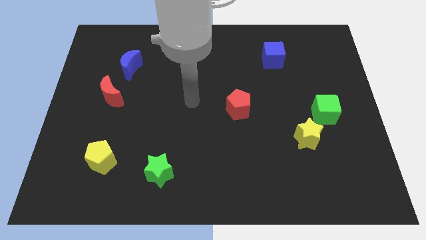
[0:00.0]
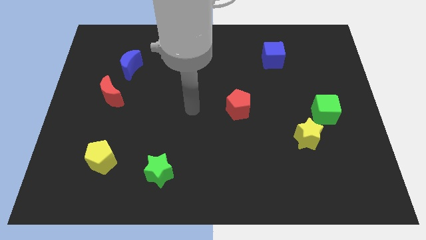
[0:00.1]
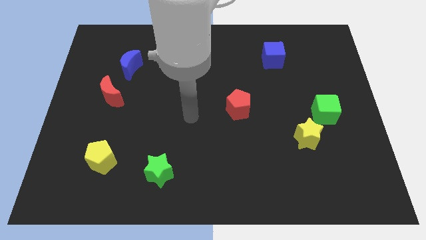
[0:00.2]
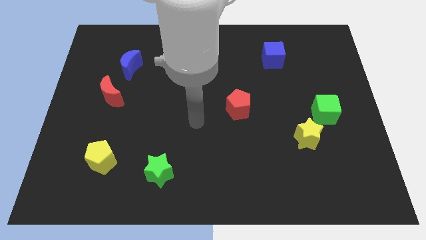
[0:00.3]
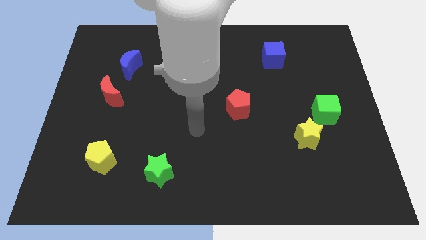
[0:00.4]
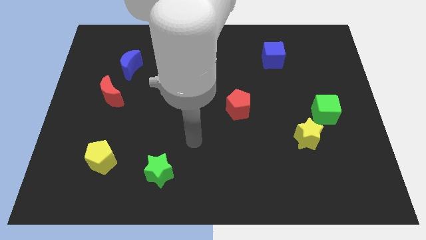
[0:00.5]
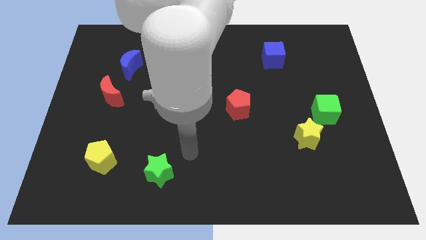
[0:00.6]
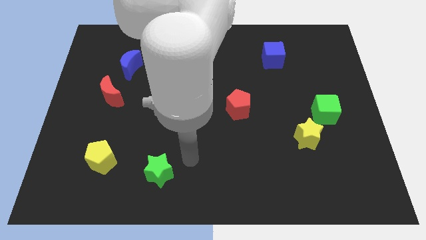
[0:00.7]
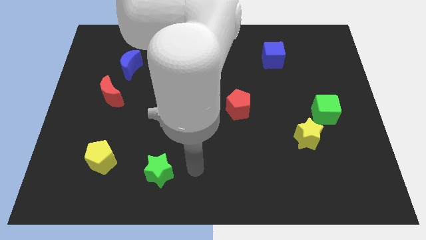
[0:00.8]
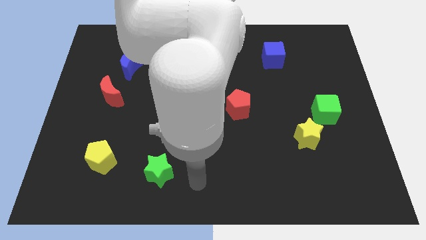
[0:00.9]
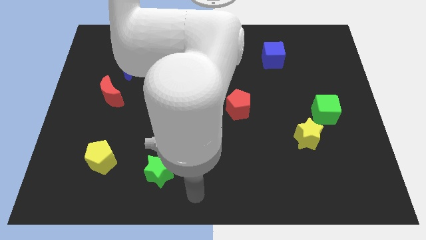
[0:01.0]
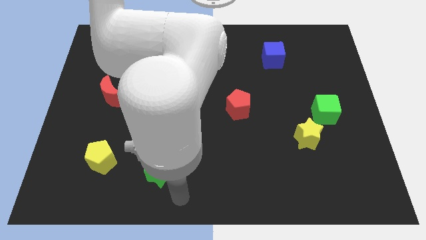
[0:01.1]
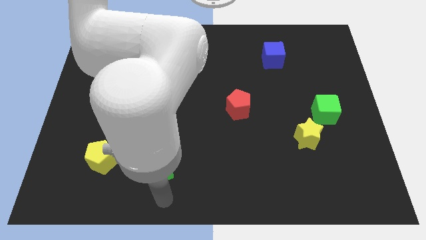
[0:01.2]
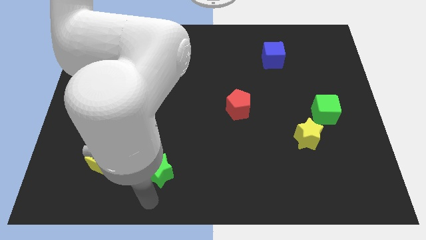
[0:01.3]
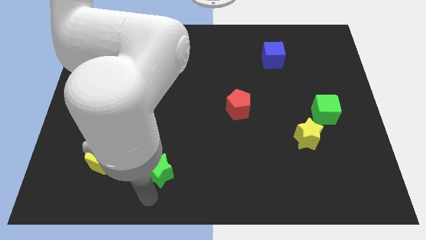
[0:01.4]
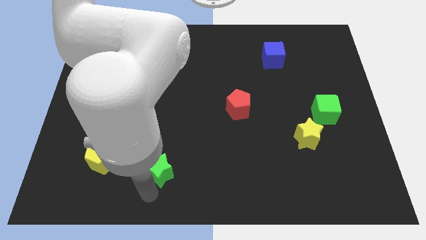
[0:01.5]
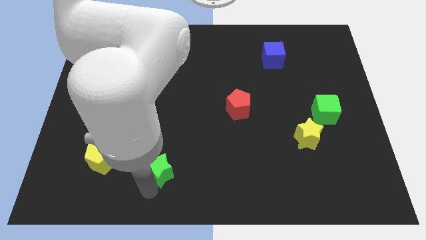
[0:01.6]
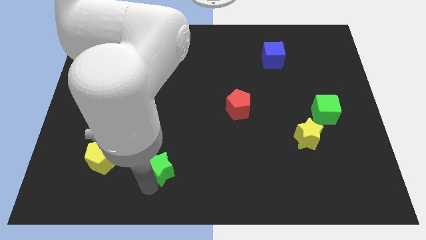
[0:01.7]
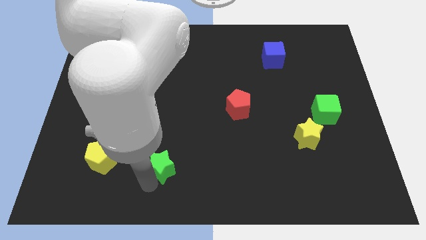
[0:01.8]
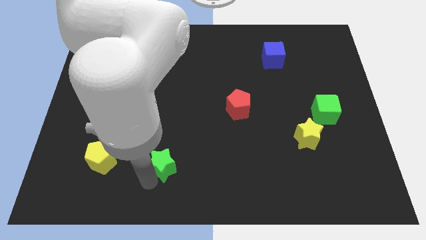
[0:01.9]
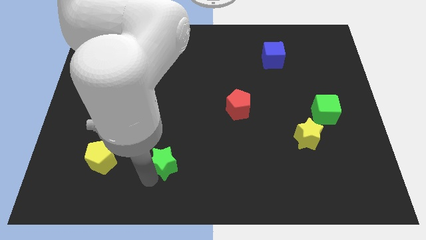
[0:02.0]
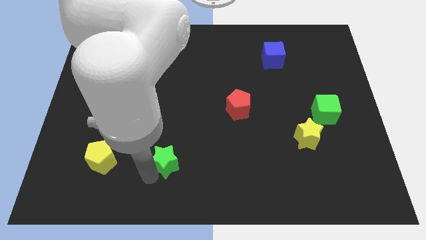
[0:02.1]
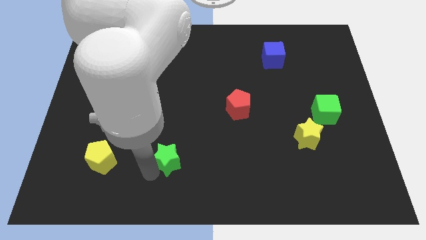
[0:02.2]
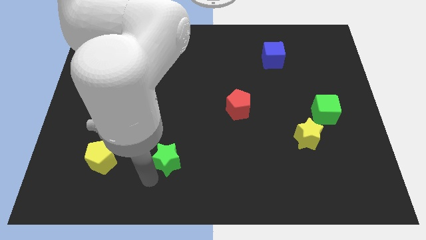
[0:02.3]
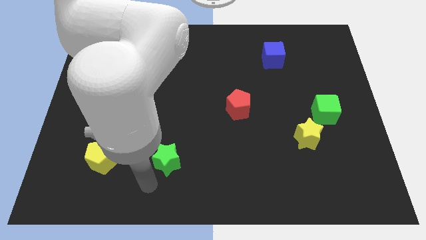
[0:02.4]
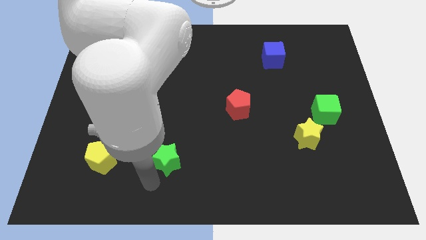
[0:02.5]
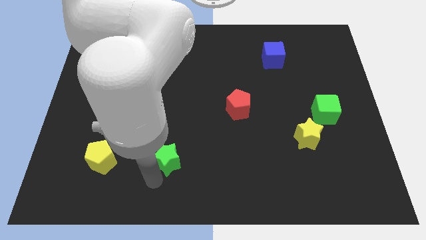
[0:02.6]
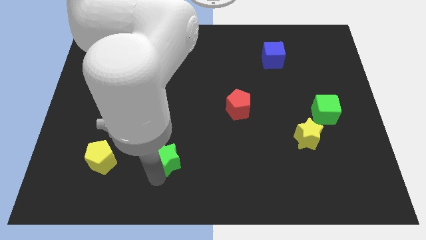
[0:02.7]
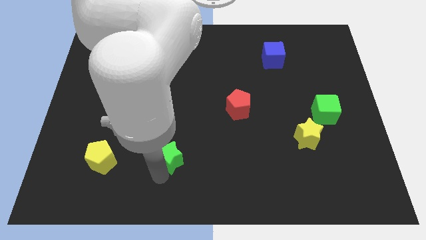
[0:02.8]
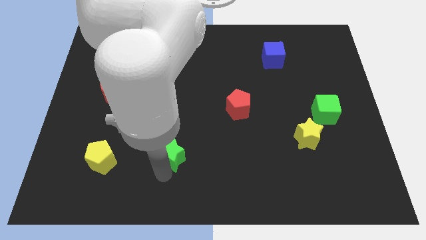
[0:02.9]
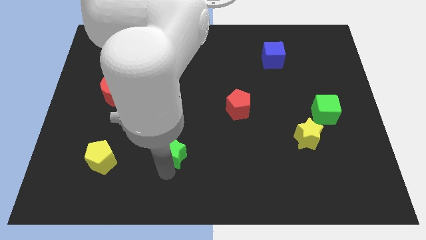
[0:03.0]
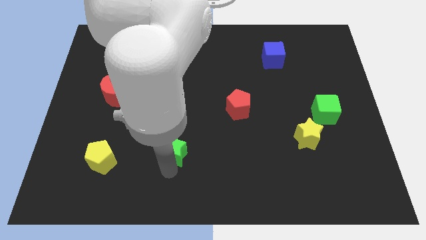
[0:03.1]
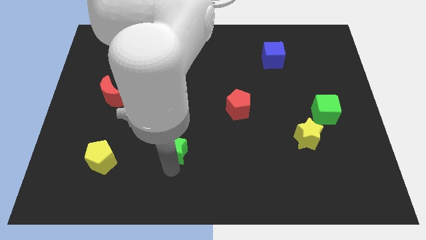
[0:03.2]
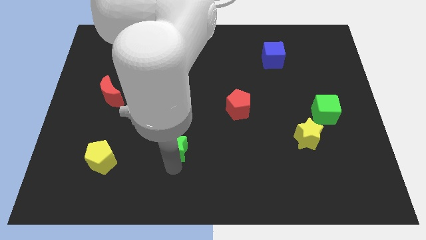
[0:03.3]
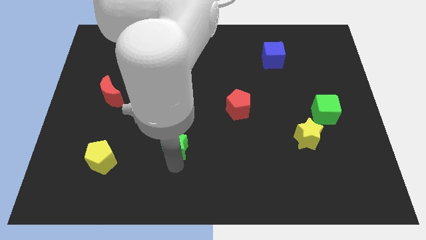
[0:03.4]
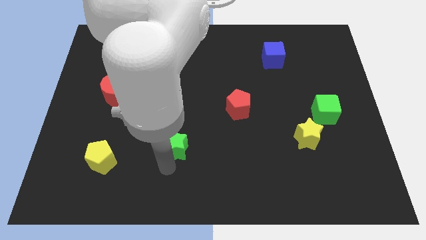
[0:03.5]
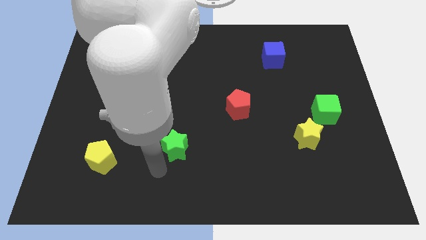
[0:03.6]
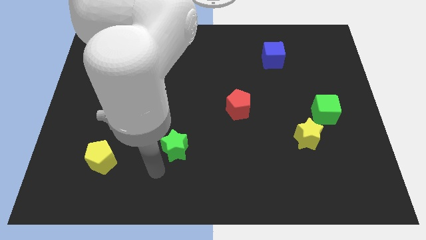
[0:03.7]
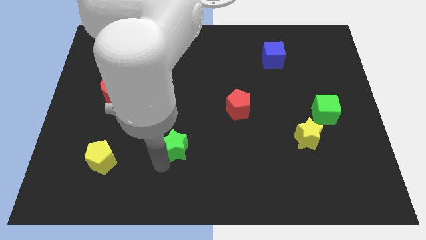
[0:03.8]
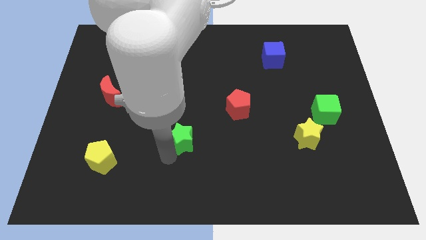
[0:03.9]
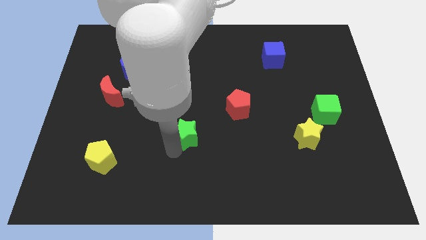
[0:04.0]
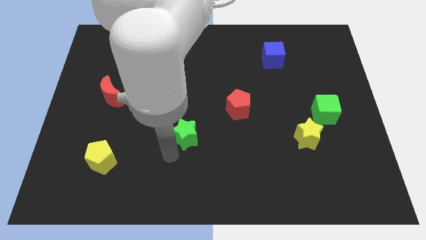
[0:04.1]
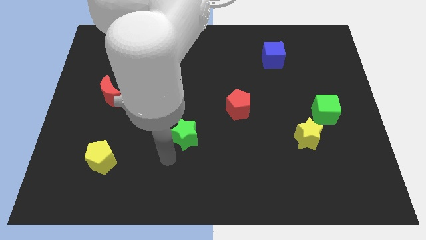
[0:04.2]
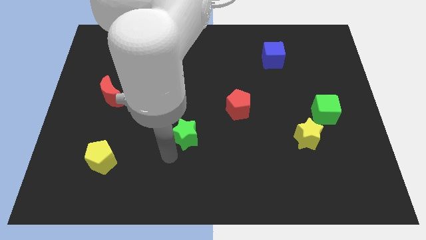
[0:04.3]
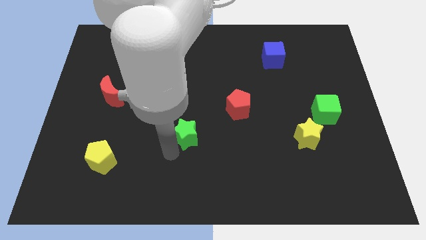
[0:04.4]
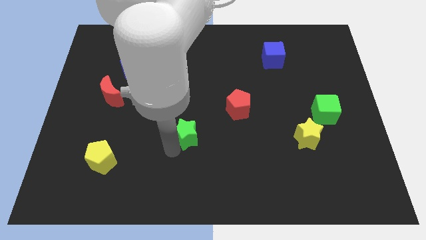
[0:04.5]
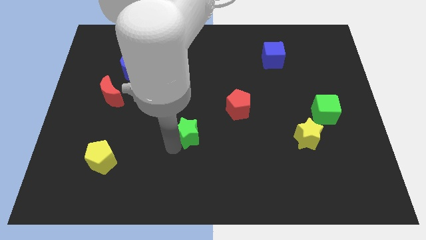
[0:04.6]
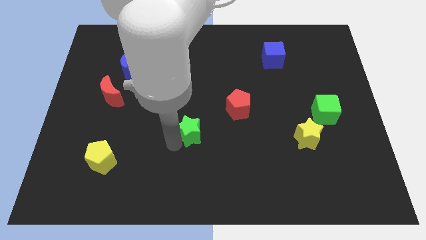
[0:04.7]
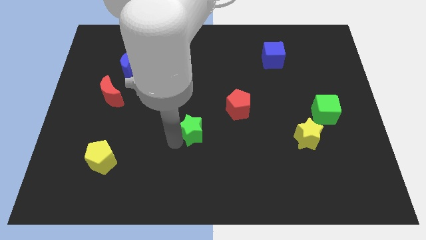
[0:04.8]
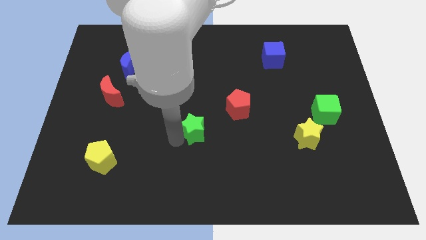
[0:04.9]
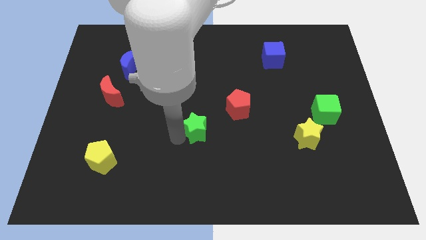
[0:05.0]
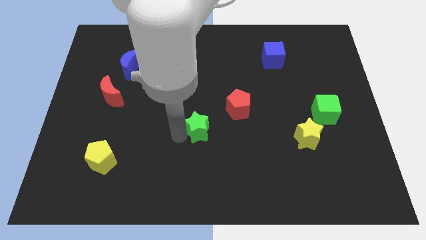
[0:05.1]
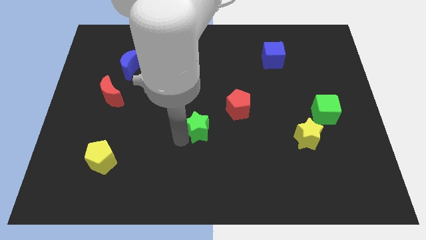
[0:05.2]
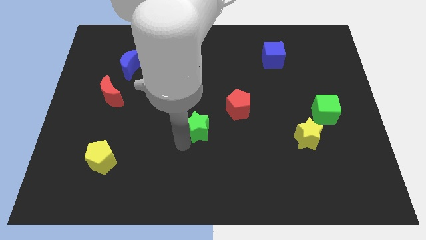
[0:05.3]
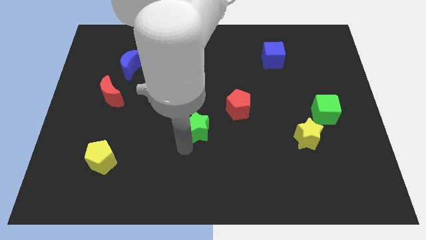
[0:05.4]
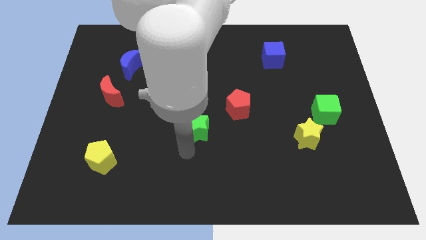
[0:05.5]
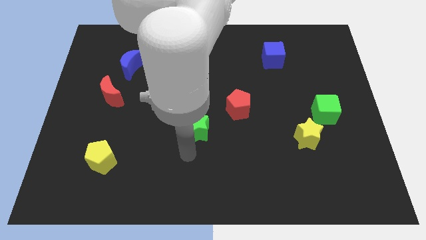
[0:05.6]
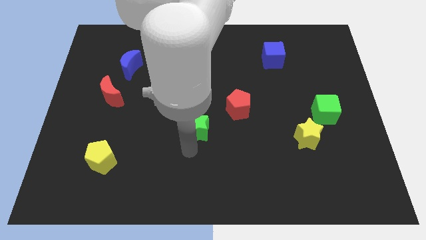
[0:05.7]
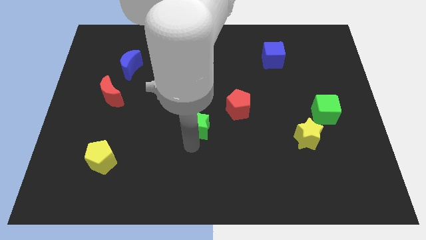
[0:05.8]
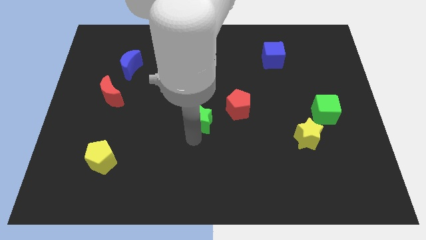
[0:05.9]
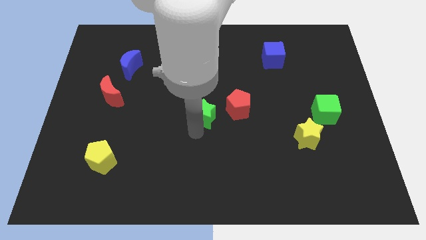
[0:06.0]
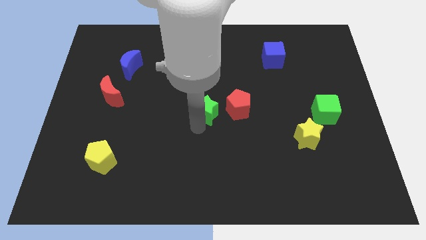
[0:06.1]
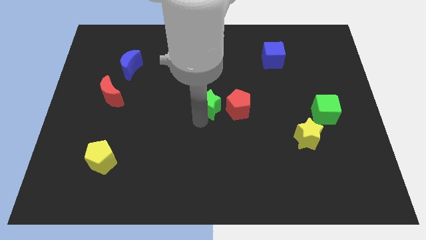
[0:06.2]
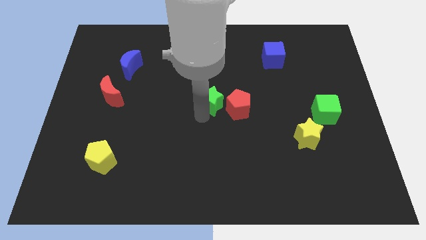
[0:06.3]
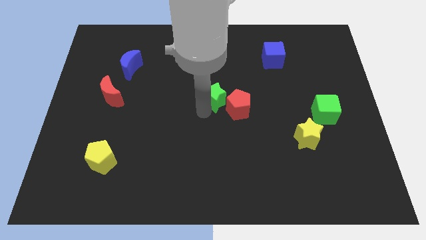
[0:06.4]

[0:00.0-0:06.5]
slide the green star diagonally up and right

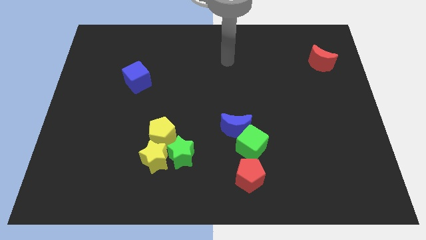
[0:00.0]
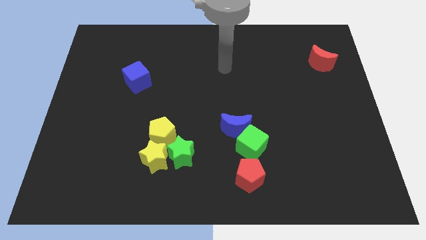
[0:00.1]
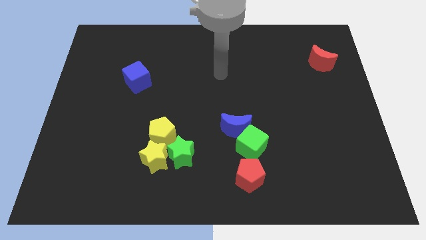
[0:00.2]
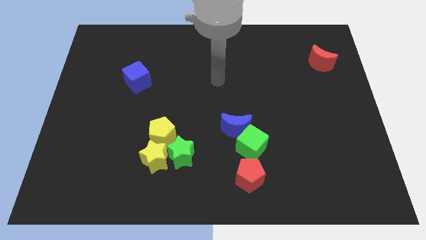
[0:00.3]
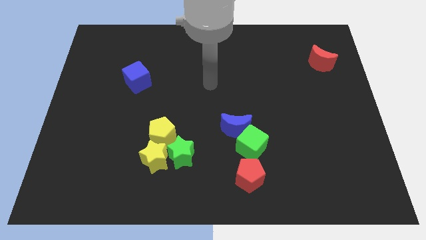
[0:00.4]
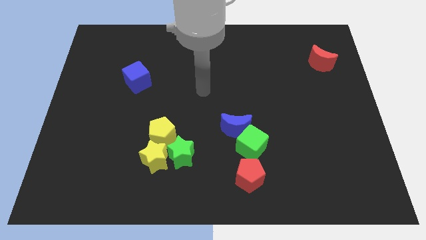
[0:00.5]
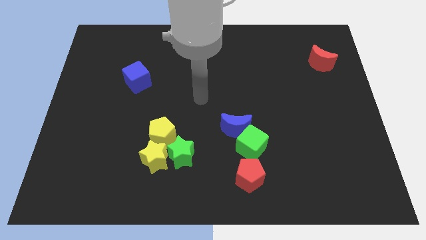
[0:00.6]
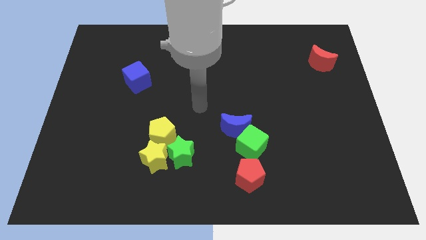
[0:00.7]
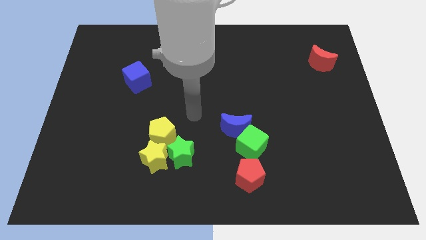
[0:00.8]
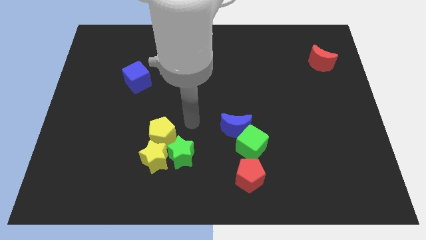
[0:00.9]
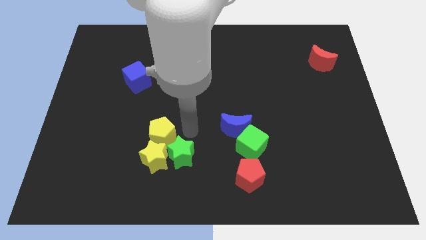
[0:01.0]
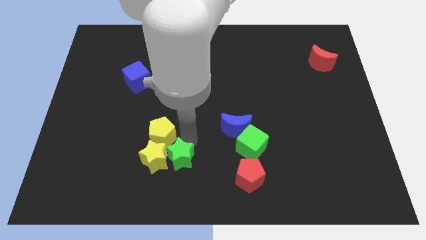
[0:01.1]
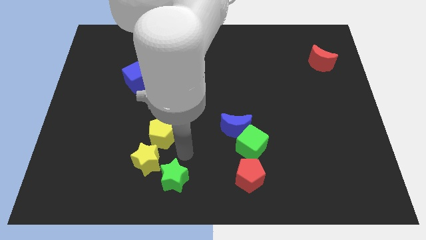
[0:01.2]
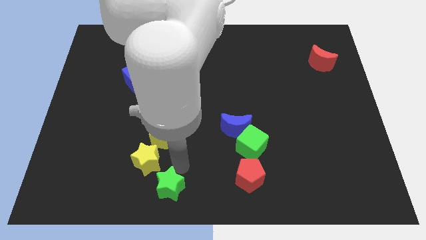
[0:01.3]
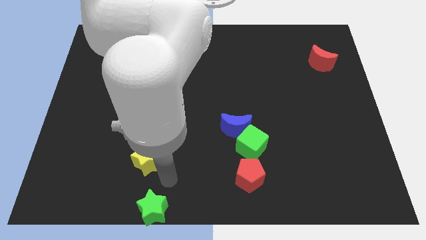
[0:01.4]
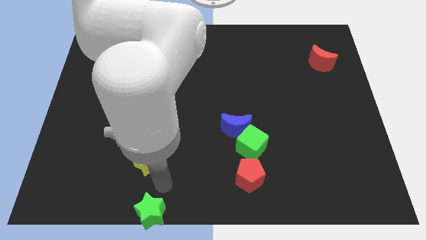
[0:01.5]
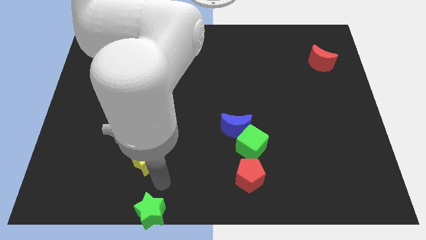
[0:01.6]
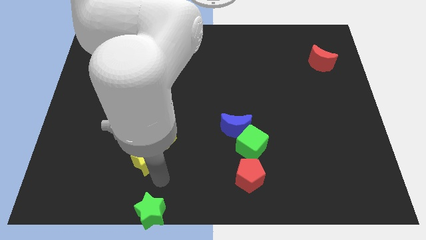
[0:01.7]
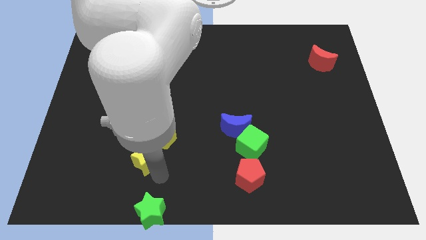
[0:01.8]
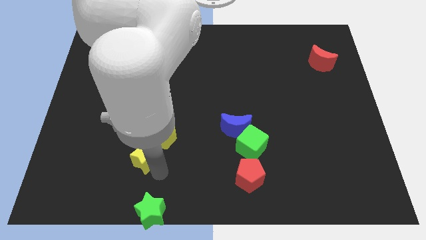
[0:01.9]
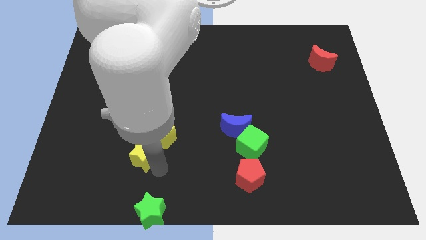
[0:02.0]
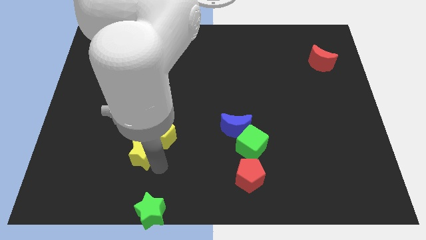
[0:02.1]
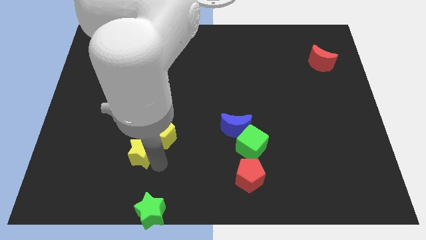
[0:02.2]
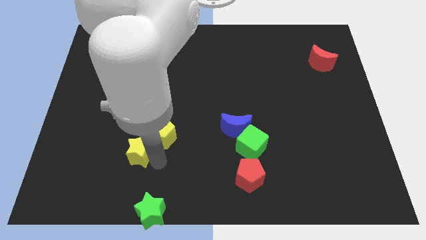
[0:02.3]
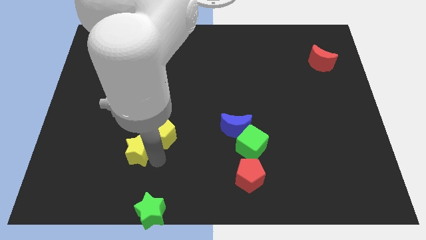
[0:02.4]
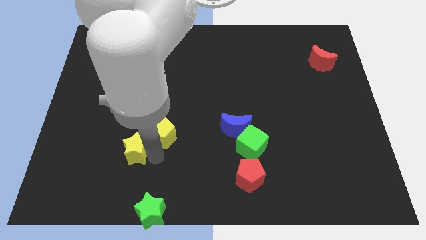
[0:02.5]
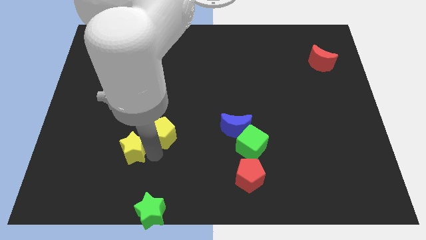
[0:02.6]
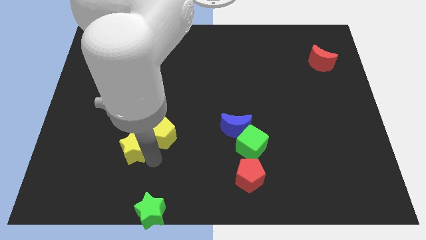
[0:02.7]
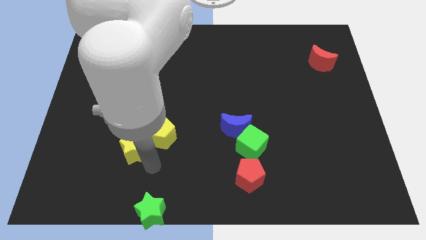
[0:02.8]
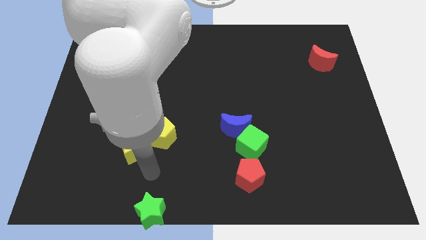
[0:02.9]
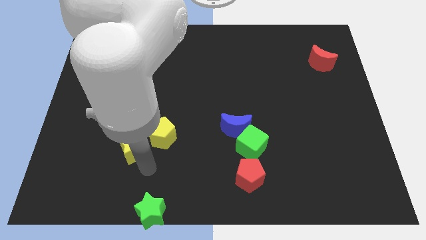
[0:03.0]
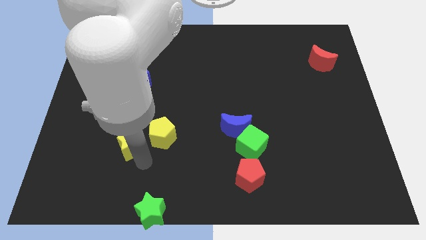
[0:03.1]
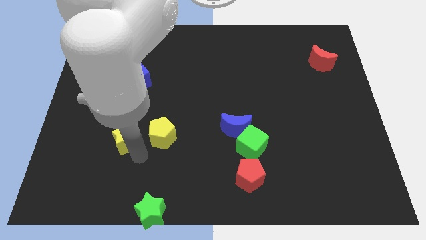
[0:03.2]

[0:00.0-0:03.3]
slightly move the yellow star diagonally upwards and to the left
